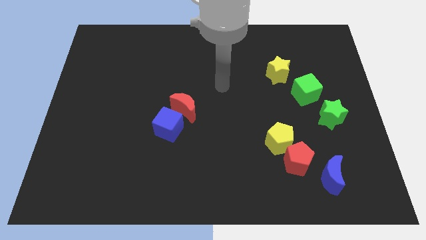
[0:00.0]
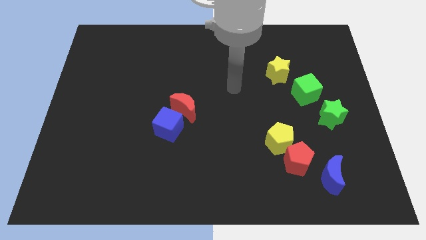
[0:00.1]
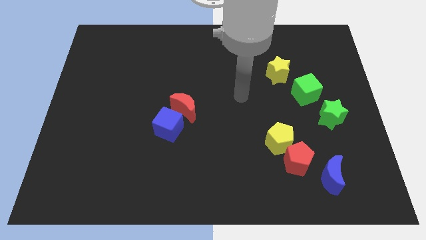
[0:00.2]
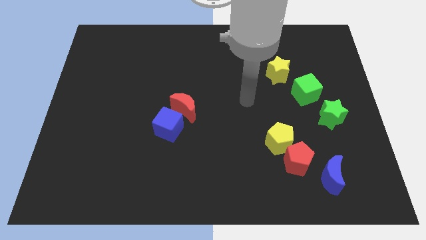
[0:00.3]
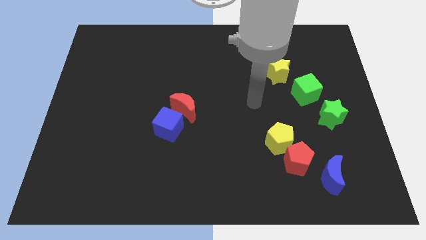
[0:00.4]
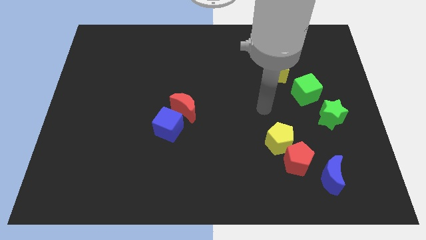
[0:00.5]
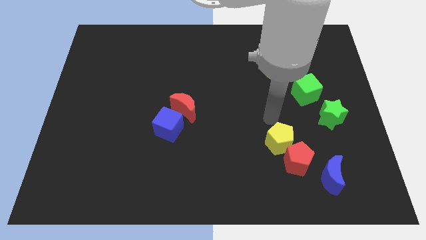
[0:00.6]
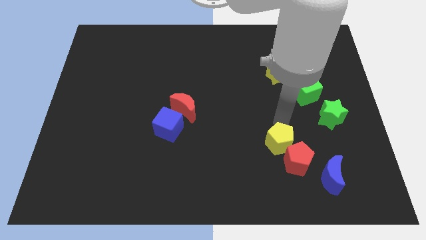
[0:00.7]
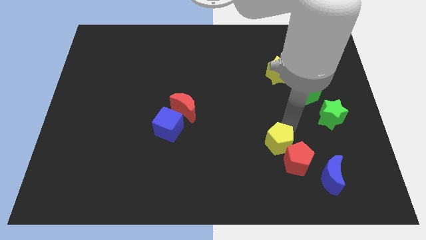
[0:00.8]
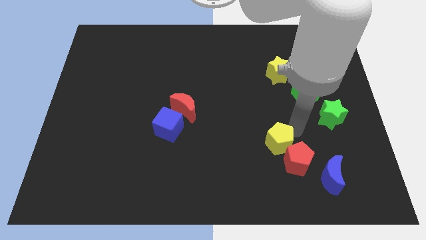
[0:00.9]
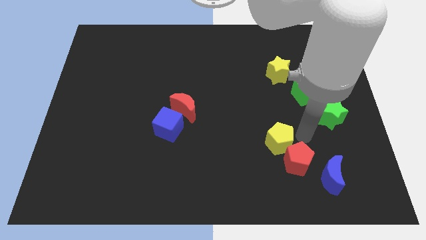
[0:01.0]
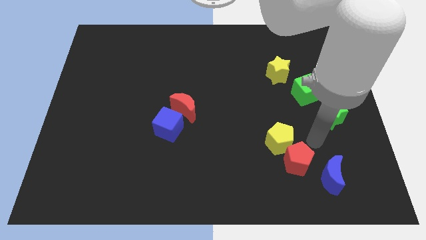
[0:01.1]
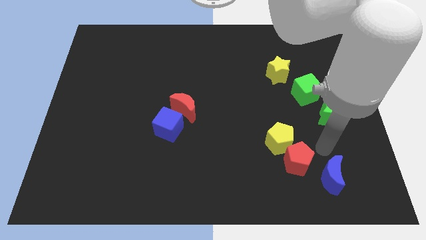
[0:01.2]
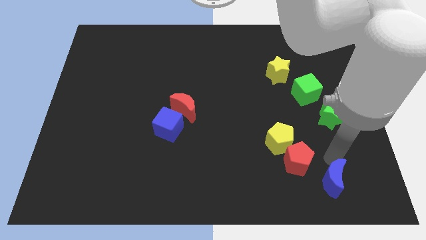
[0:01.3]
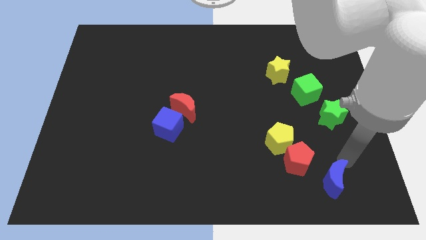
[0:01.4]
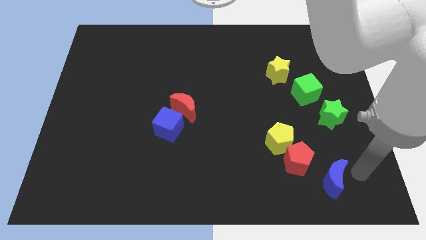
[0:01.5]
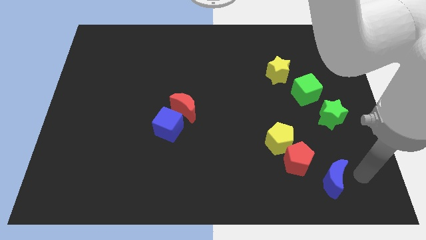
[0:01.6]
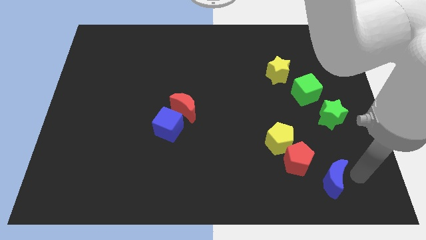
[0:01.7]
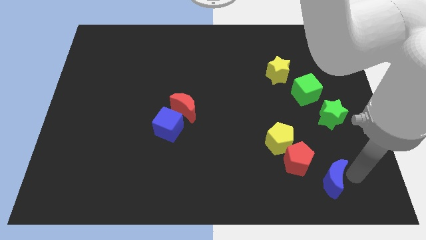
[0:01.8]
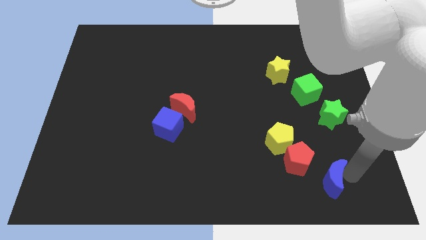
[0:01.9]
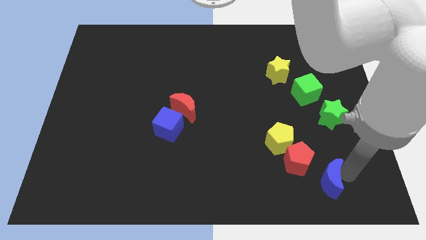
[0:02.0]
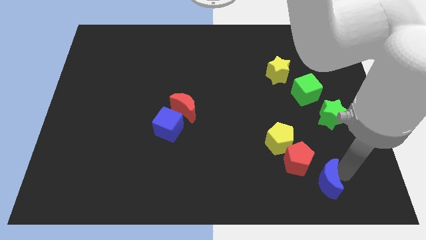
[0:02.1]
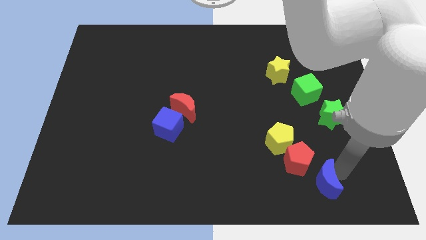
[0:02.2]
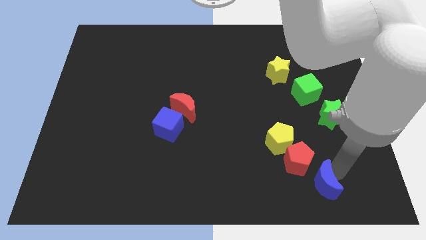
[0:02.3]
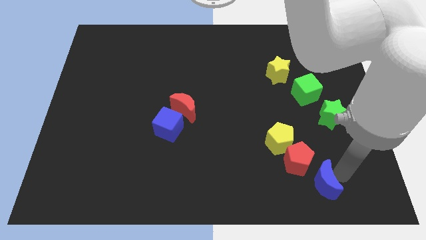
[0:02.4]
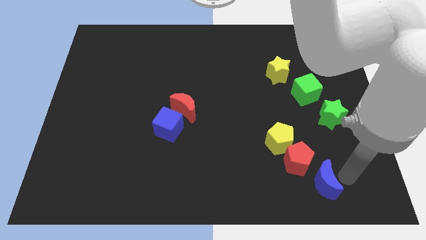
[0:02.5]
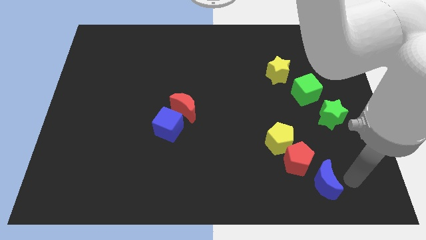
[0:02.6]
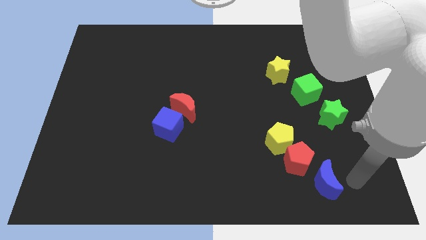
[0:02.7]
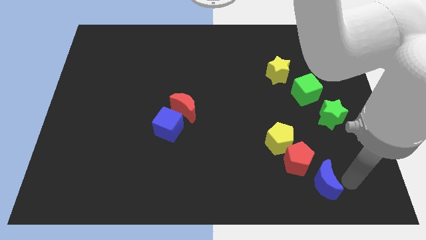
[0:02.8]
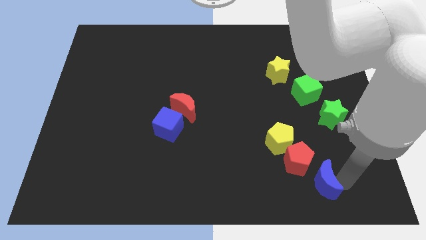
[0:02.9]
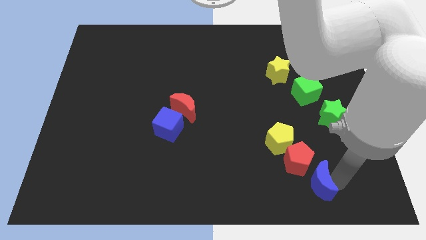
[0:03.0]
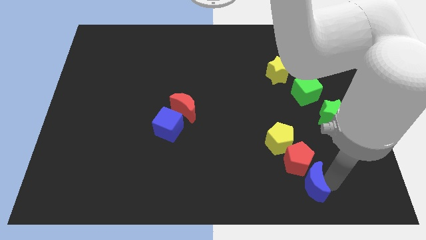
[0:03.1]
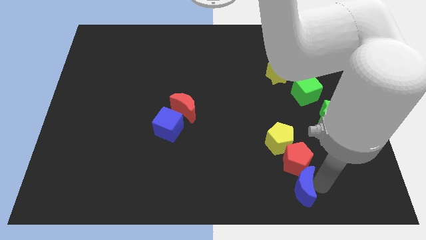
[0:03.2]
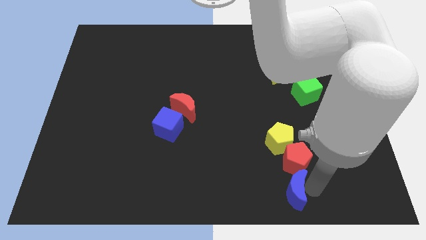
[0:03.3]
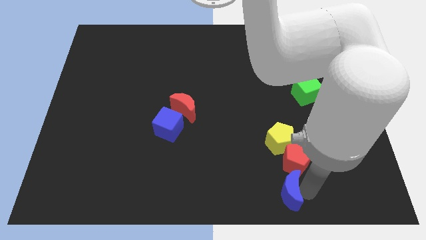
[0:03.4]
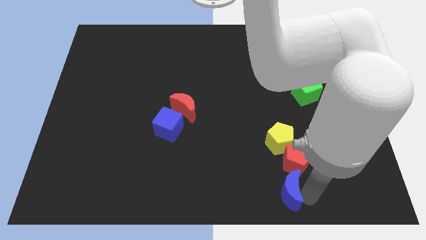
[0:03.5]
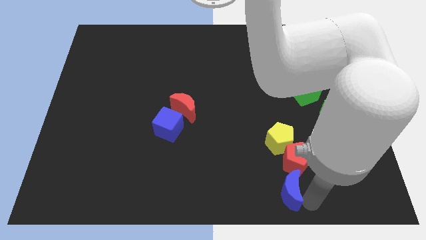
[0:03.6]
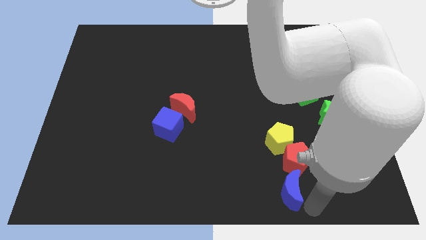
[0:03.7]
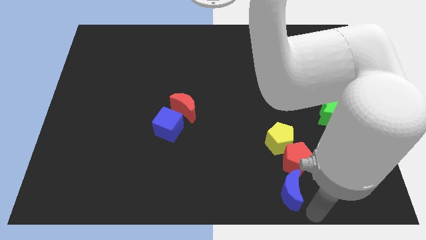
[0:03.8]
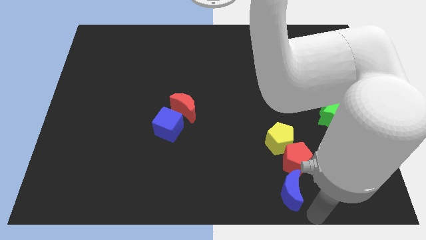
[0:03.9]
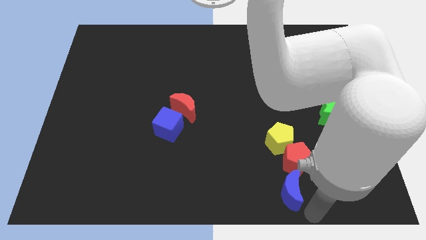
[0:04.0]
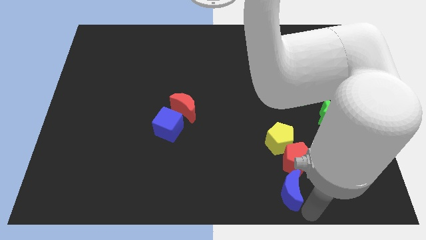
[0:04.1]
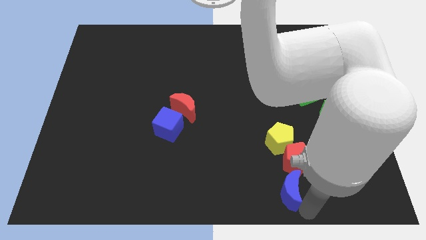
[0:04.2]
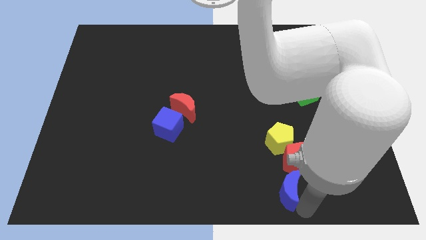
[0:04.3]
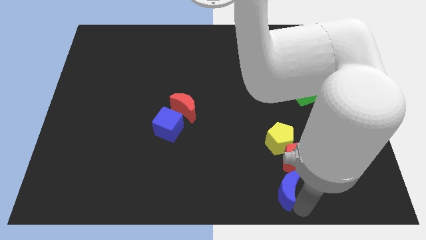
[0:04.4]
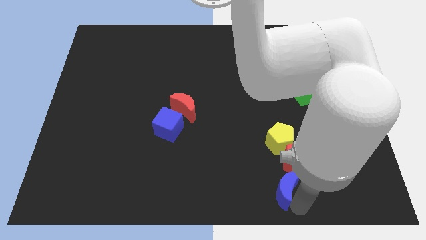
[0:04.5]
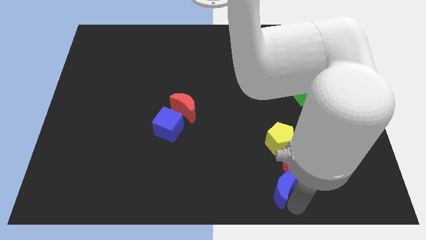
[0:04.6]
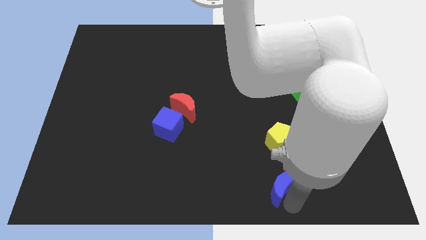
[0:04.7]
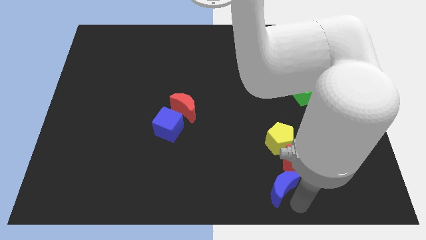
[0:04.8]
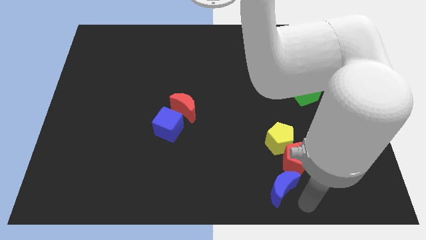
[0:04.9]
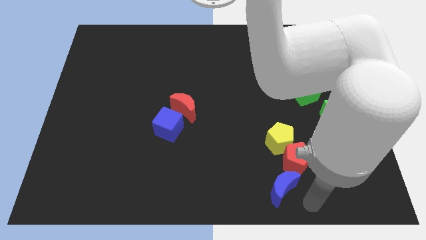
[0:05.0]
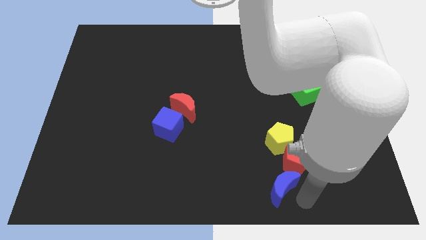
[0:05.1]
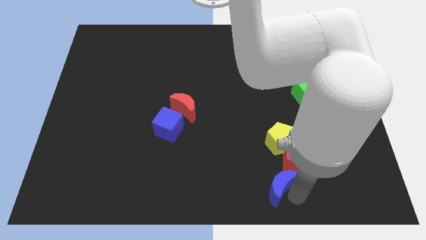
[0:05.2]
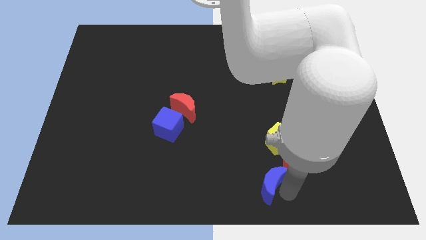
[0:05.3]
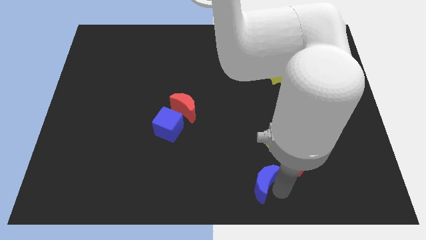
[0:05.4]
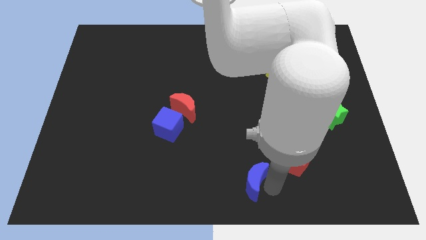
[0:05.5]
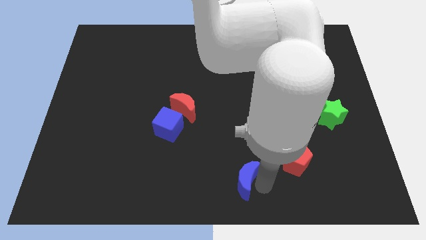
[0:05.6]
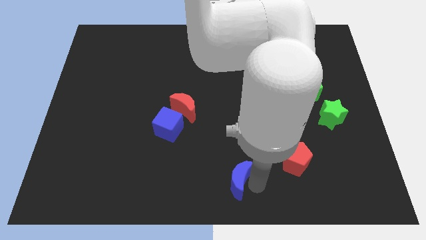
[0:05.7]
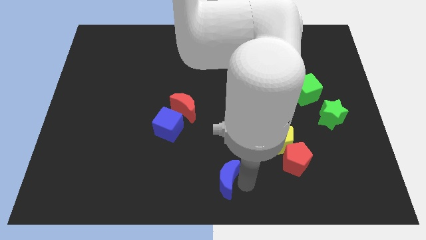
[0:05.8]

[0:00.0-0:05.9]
push the blue moon to the left

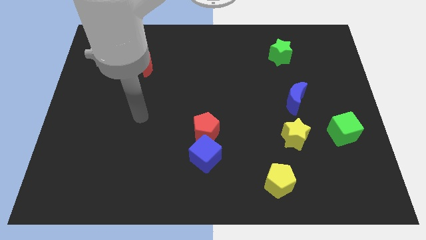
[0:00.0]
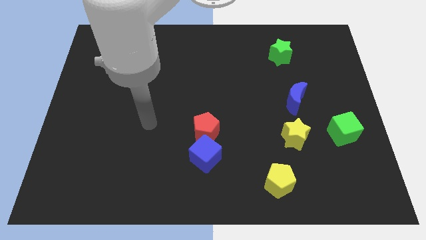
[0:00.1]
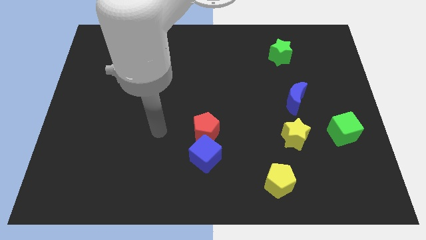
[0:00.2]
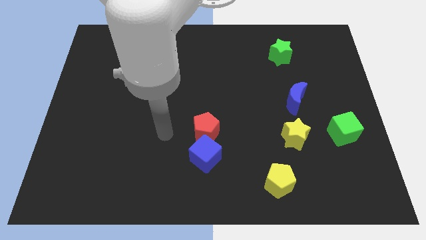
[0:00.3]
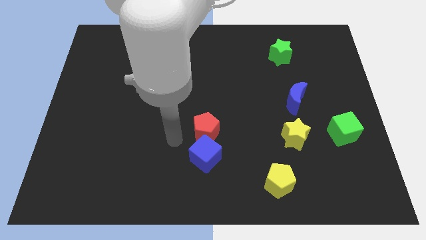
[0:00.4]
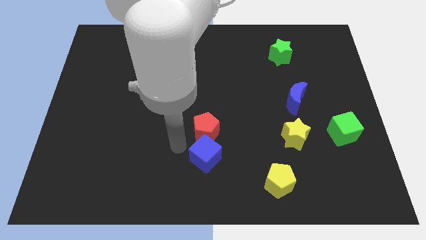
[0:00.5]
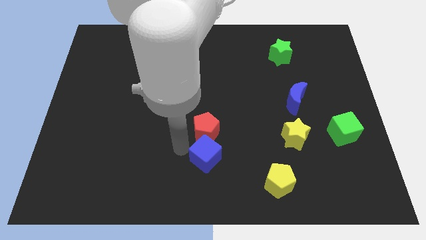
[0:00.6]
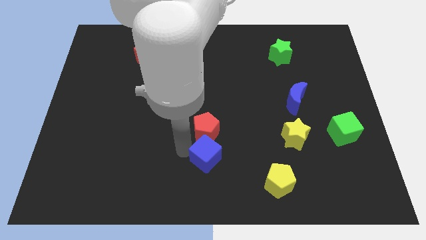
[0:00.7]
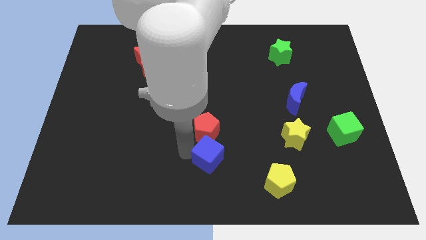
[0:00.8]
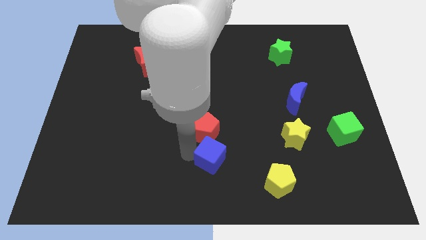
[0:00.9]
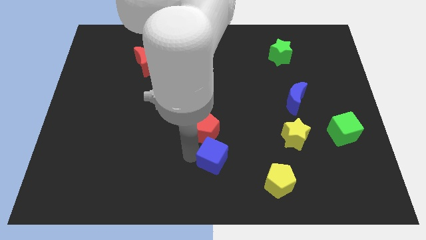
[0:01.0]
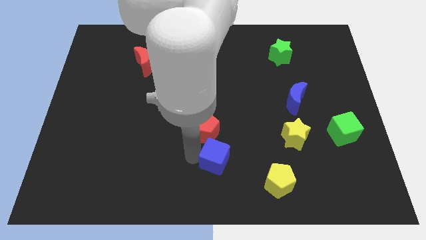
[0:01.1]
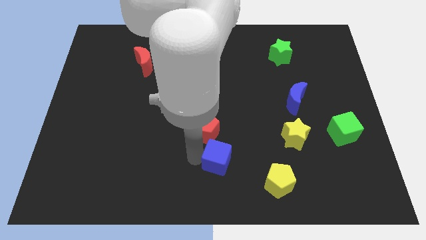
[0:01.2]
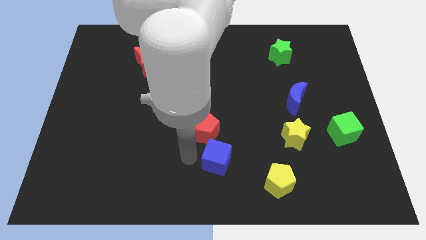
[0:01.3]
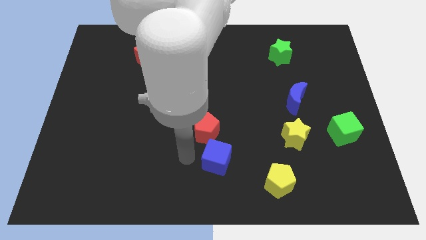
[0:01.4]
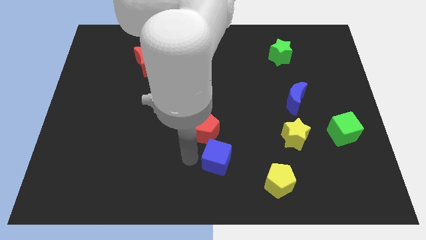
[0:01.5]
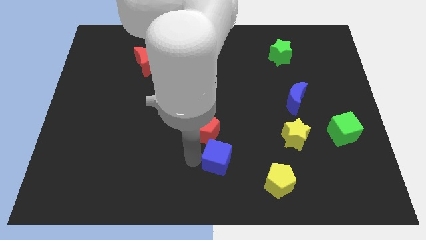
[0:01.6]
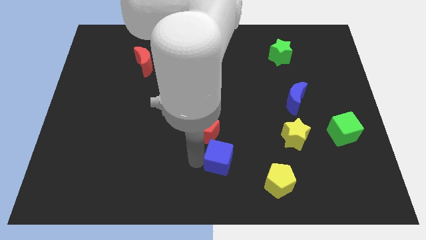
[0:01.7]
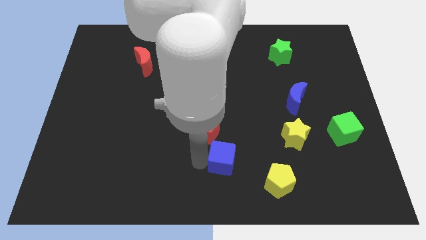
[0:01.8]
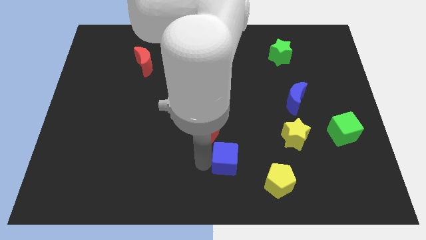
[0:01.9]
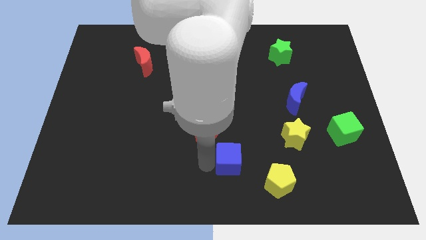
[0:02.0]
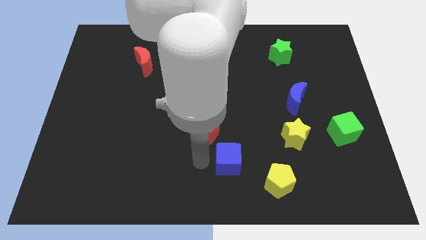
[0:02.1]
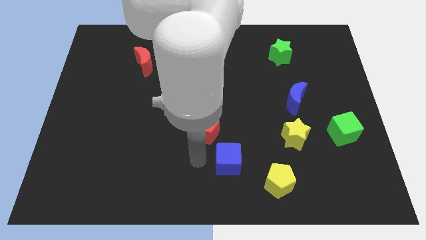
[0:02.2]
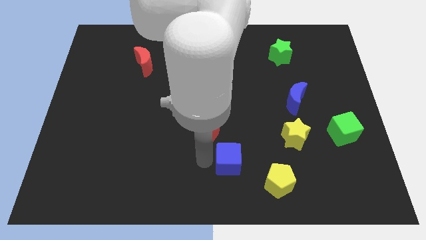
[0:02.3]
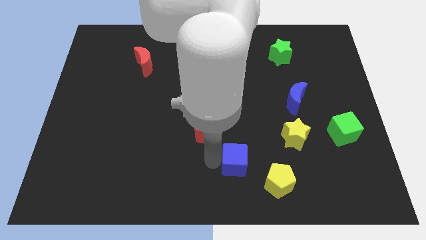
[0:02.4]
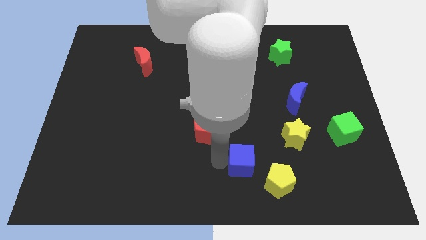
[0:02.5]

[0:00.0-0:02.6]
slightly move the blue cube to the right
